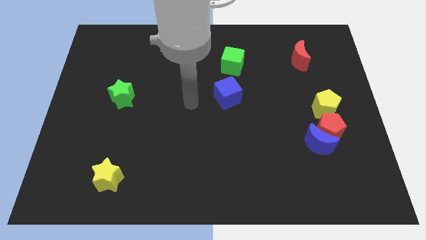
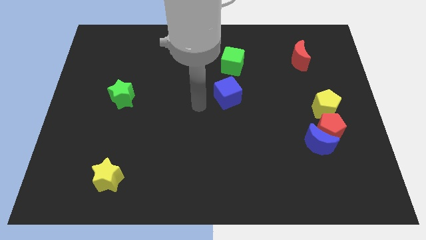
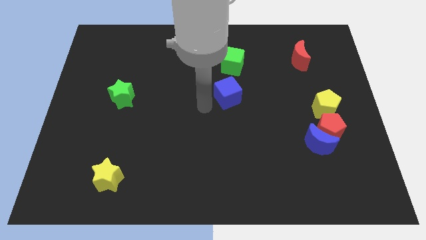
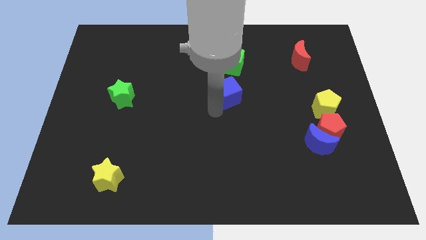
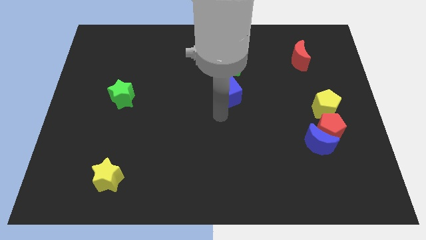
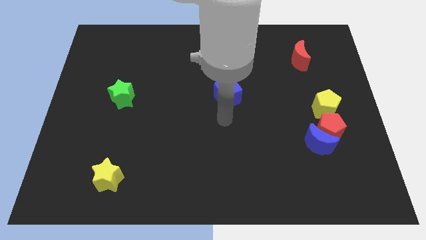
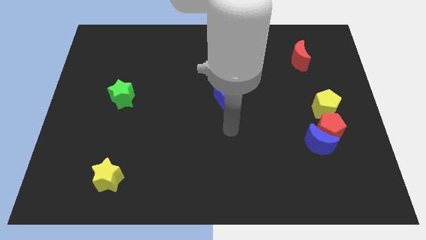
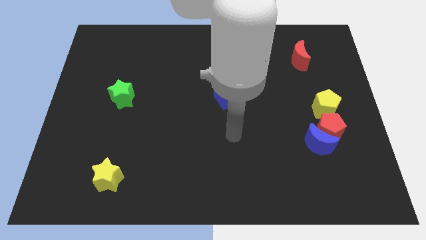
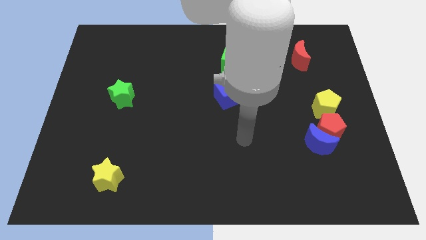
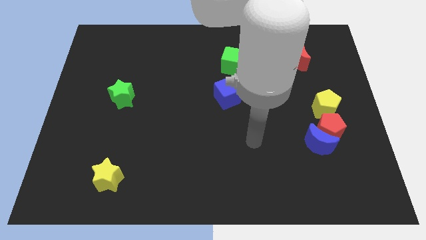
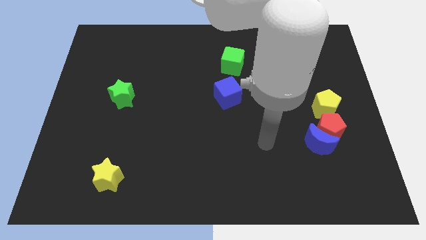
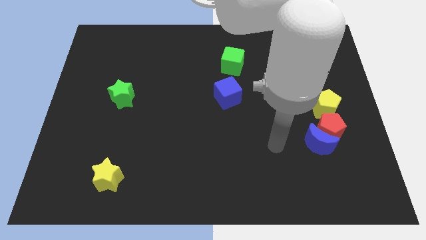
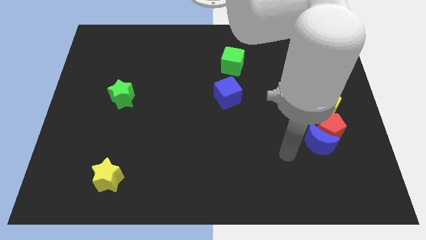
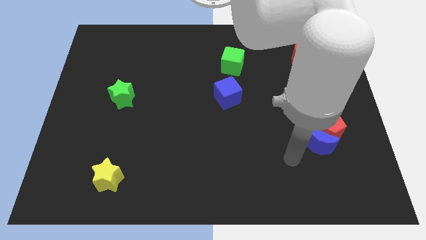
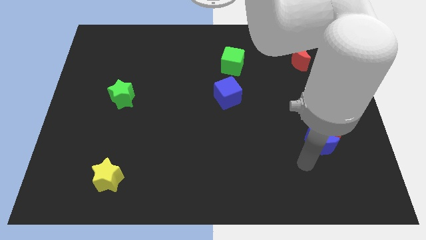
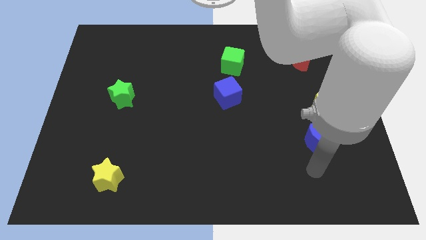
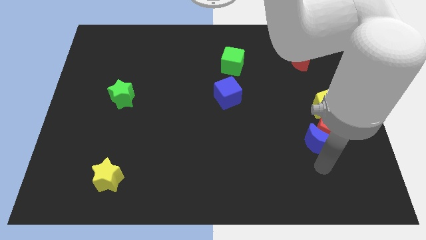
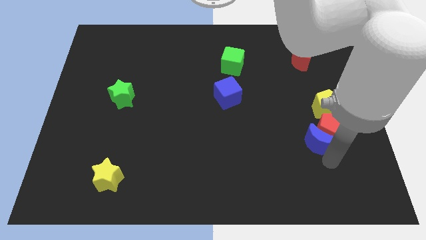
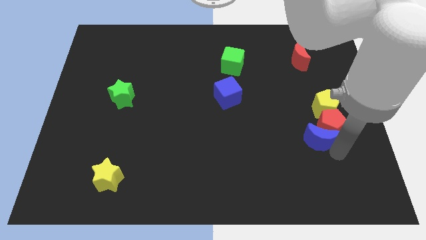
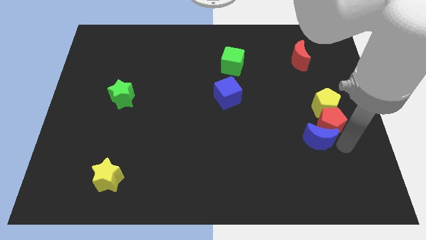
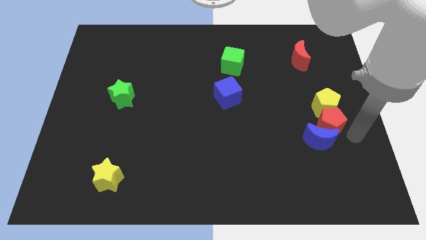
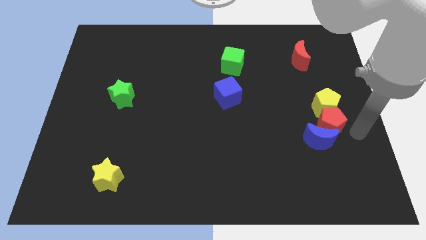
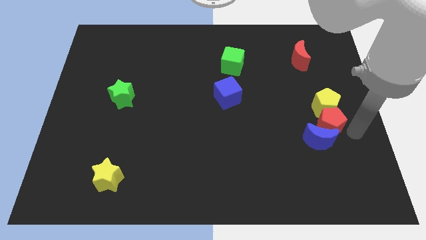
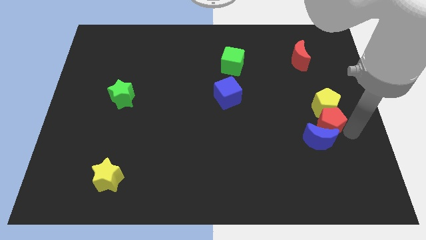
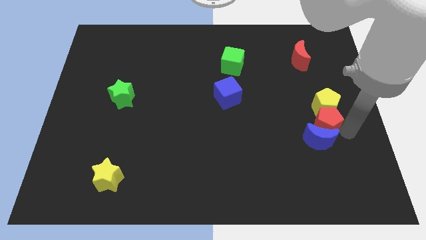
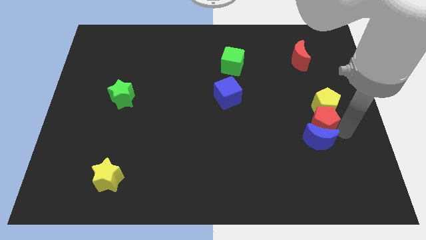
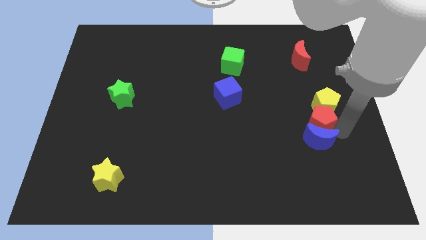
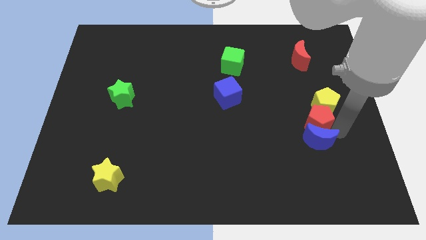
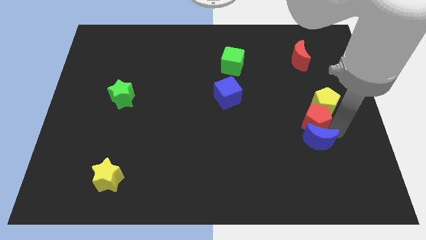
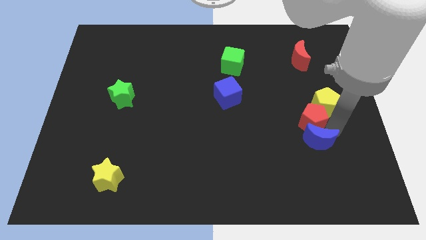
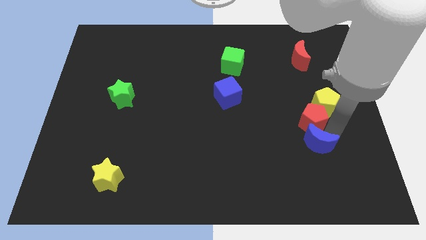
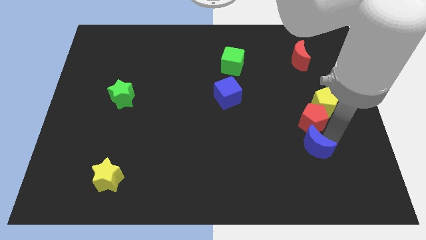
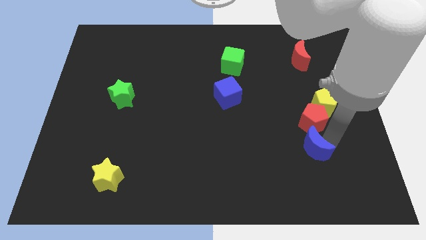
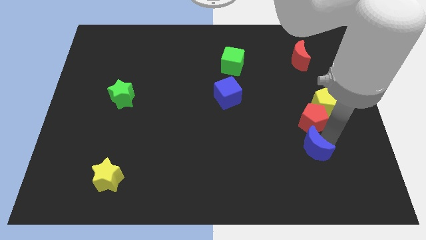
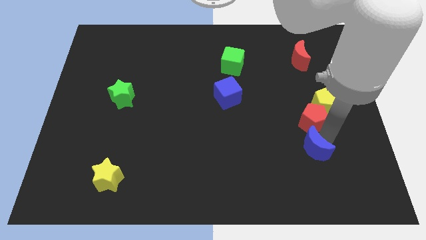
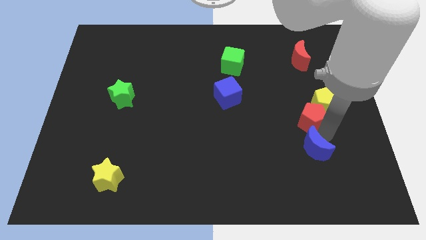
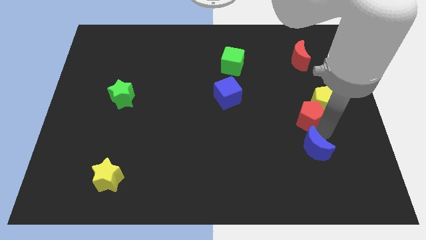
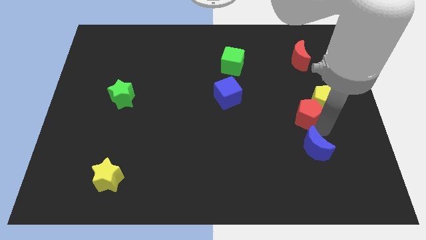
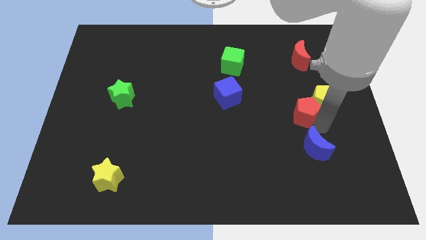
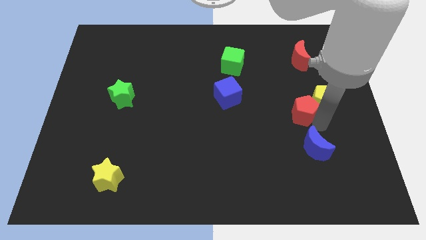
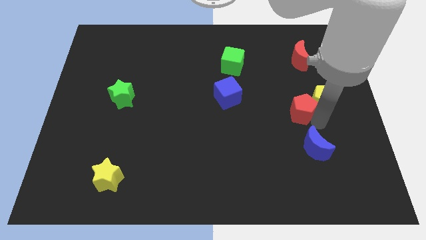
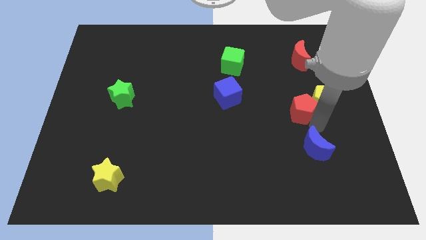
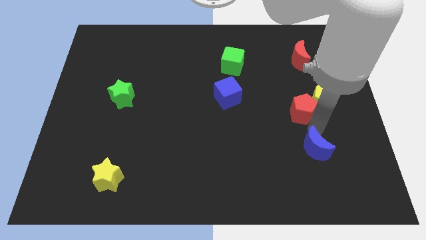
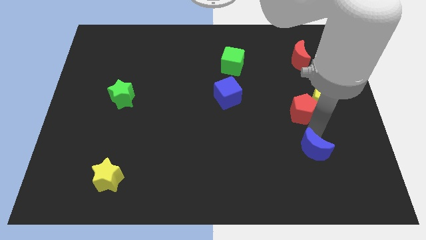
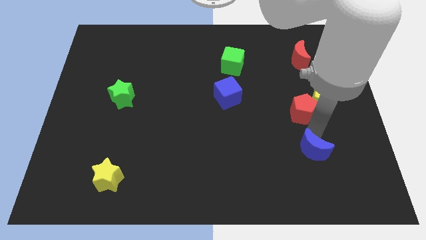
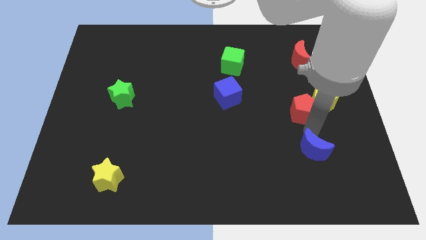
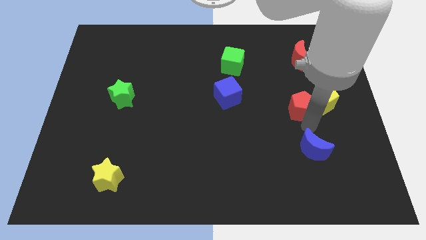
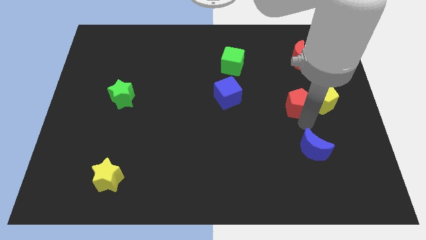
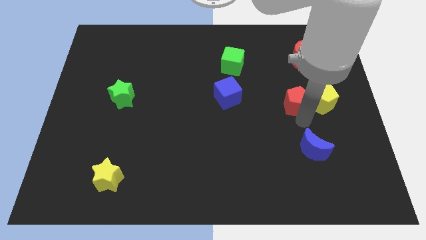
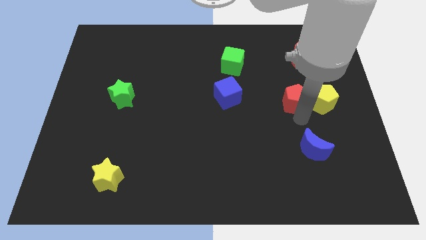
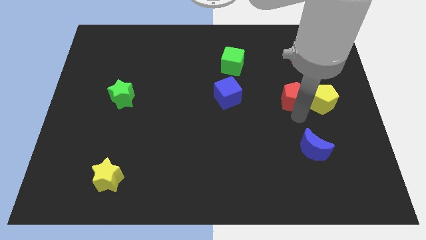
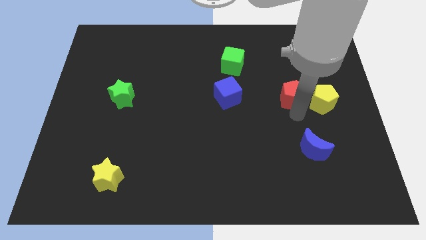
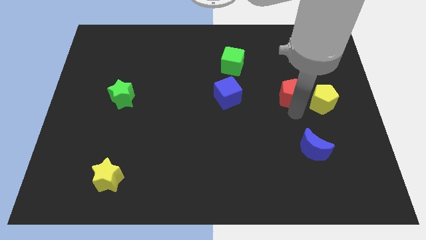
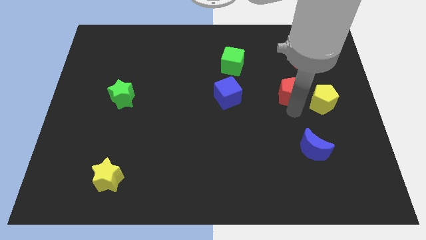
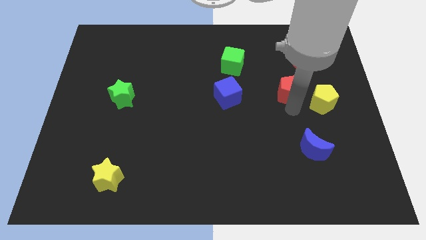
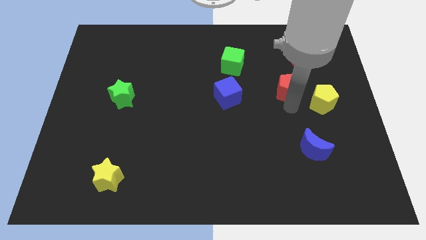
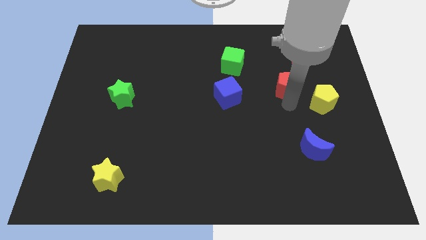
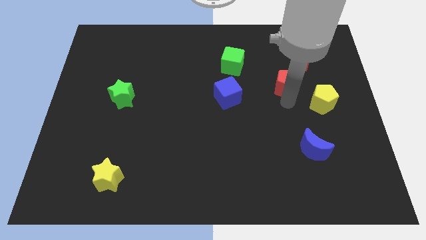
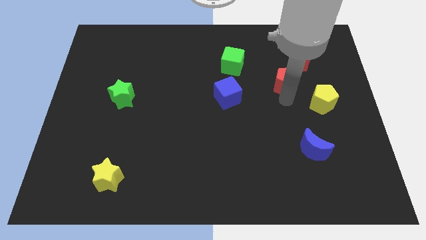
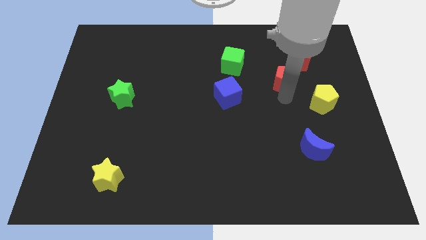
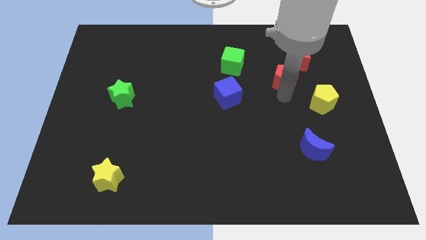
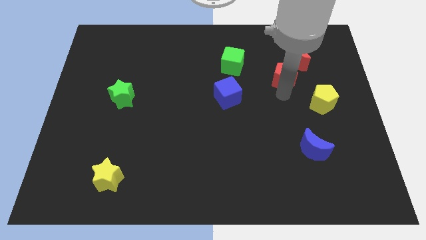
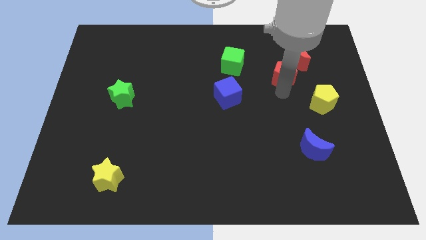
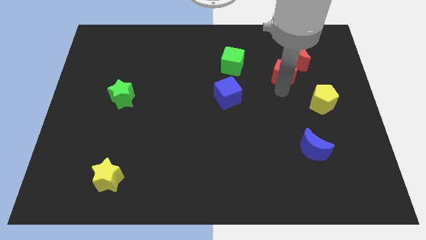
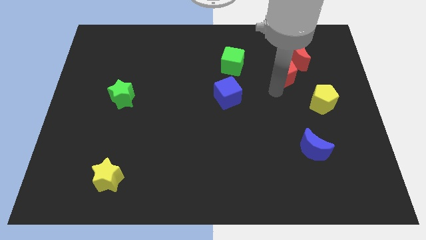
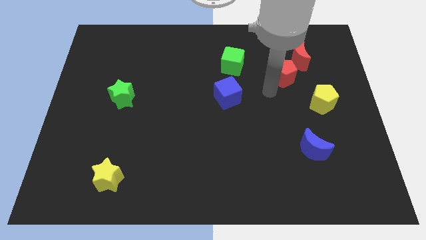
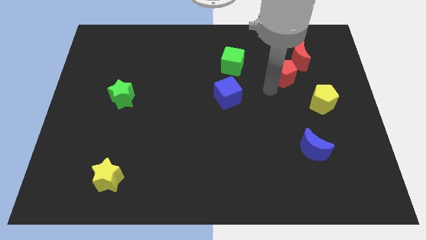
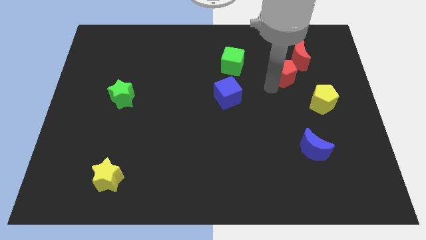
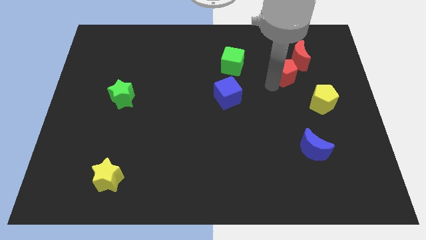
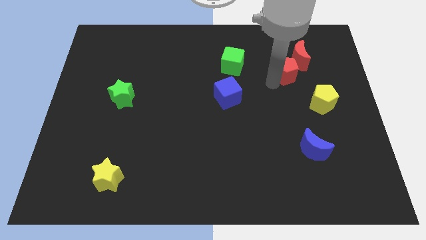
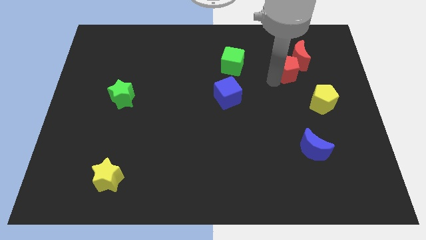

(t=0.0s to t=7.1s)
move the red pentagon close to the red moon

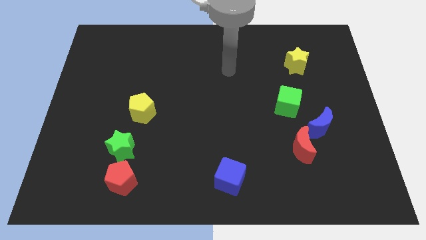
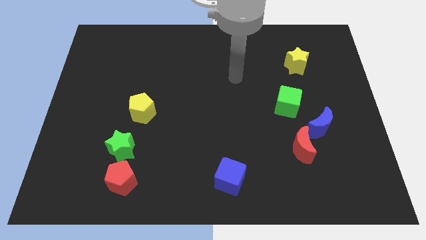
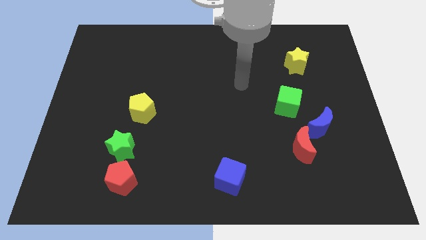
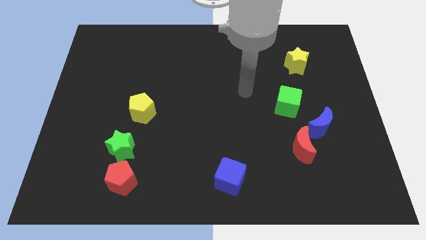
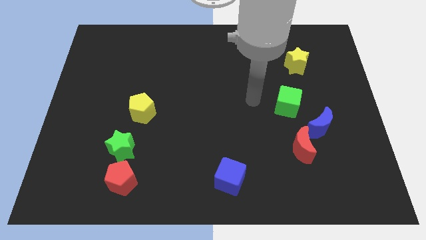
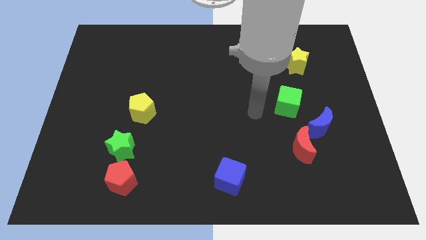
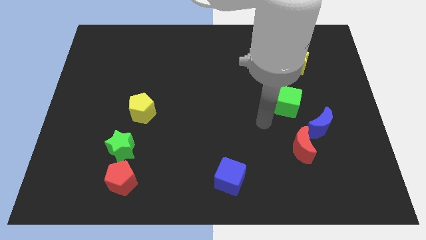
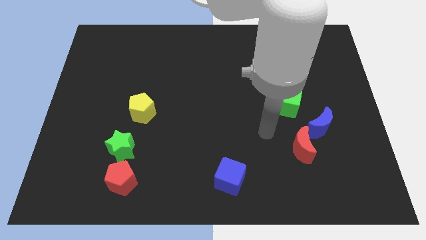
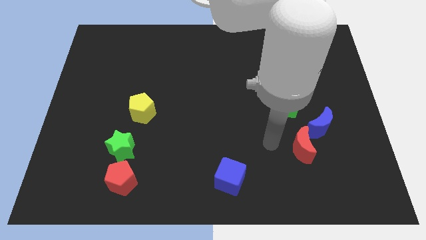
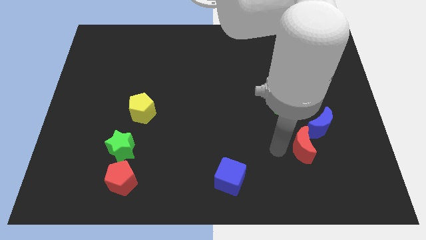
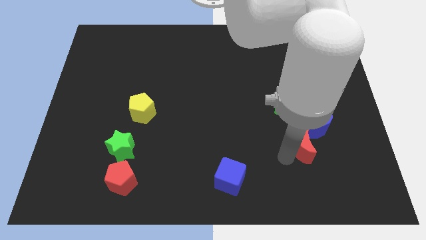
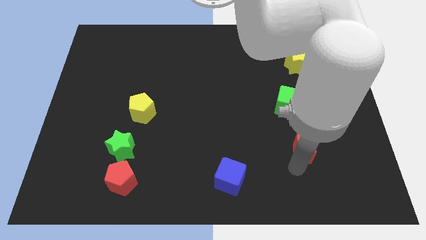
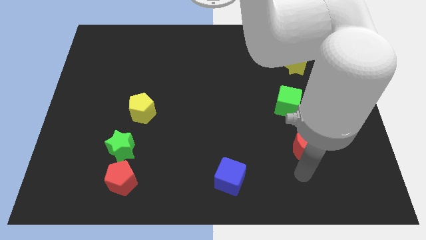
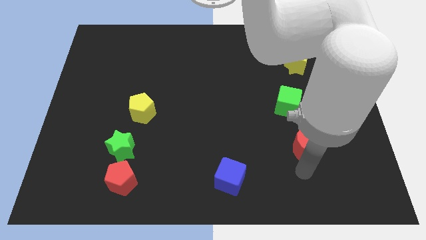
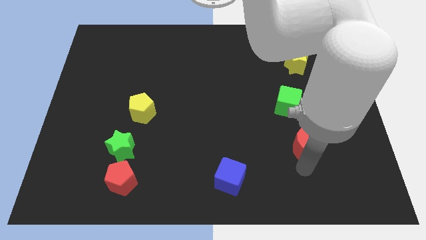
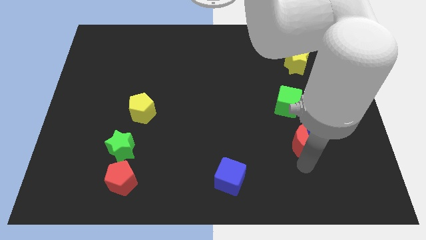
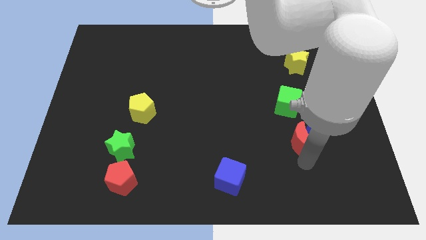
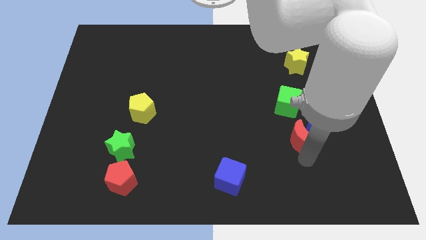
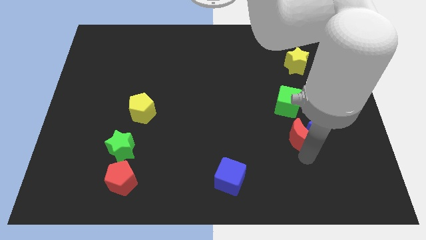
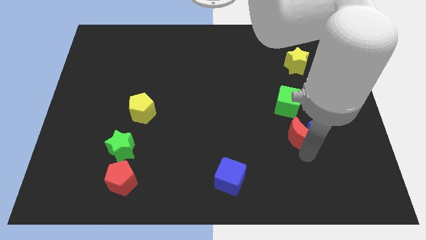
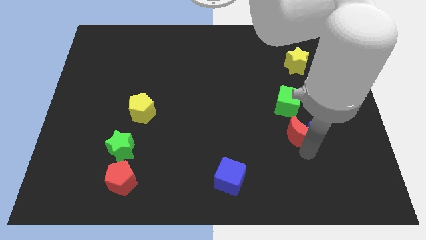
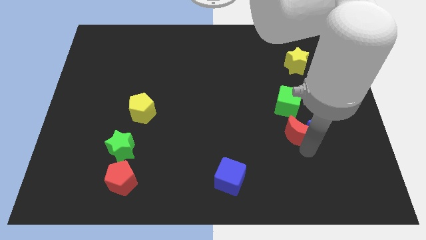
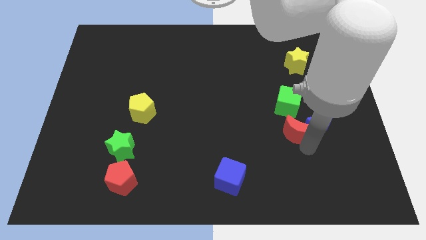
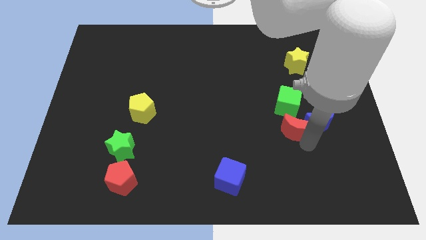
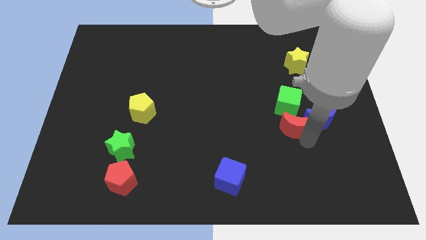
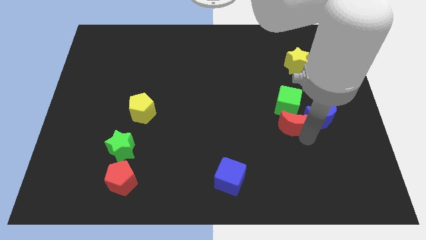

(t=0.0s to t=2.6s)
push the red moon towards the green cube
